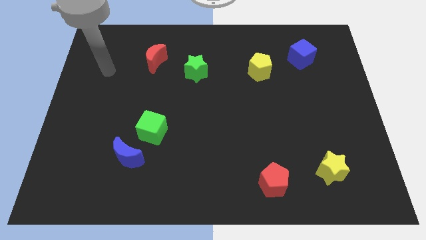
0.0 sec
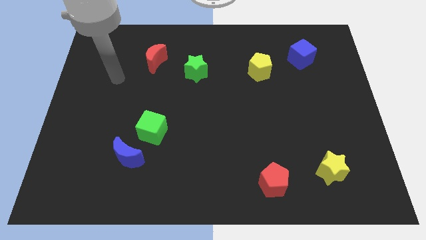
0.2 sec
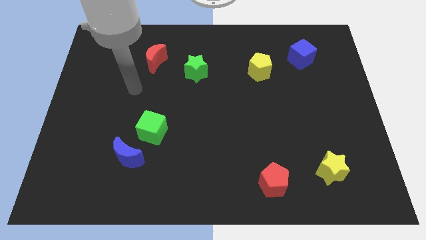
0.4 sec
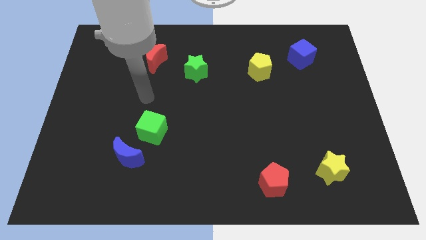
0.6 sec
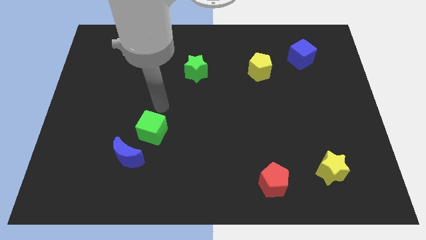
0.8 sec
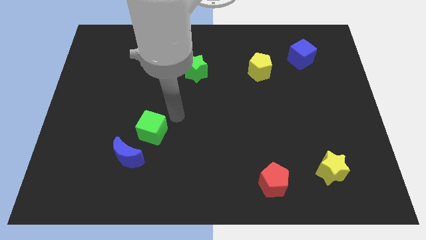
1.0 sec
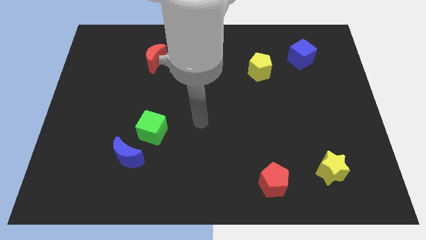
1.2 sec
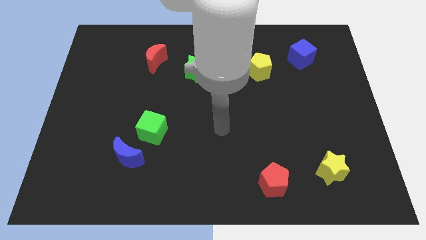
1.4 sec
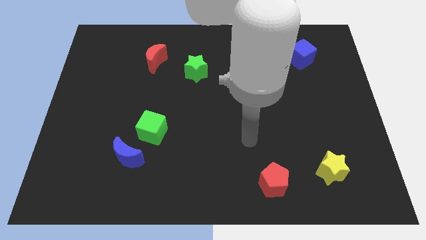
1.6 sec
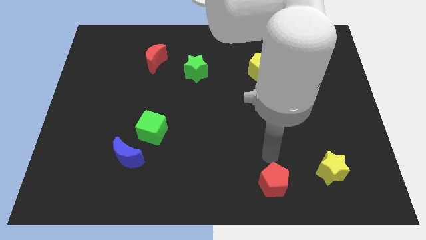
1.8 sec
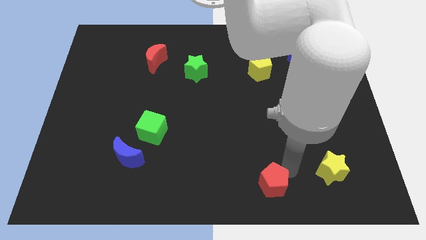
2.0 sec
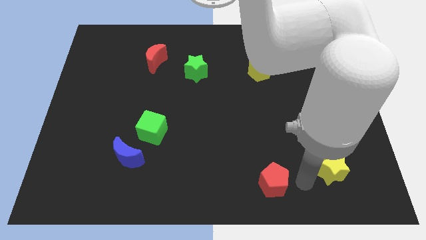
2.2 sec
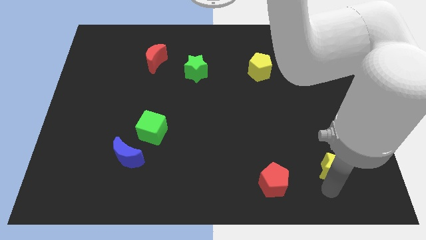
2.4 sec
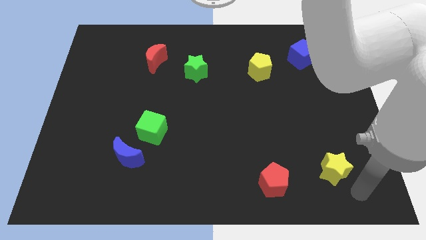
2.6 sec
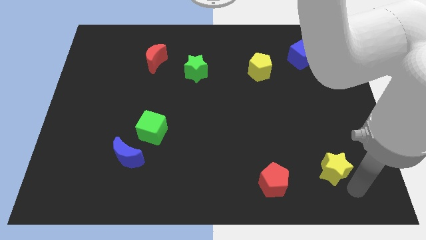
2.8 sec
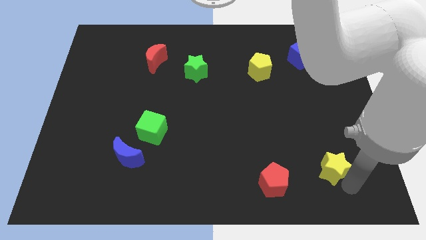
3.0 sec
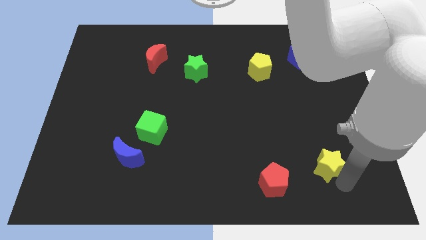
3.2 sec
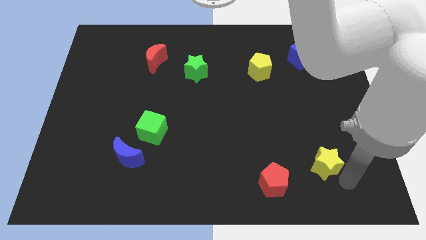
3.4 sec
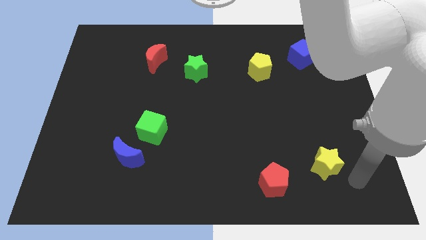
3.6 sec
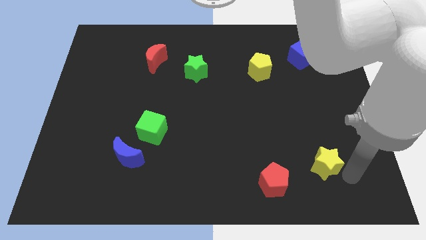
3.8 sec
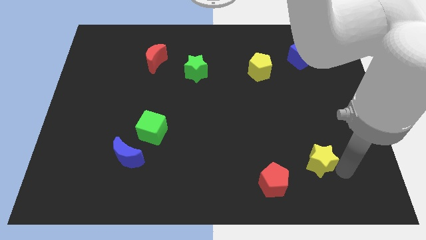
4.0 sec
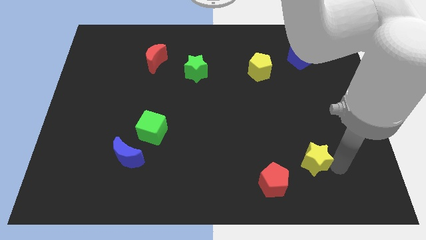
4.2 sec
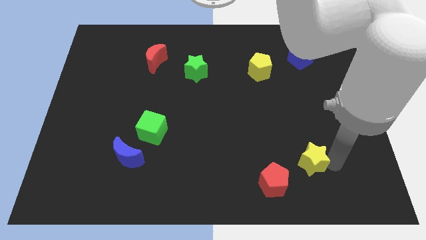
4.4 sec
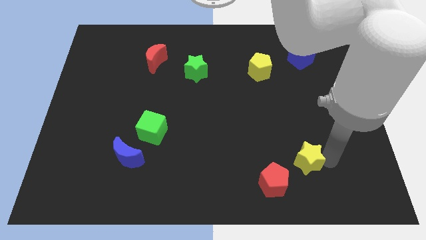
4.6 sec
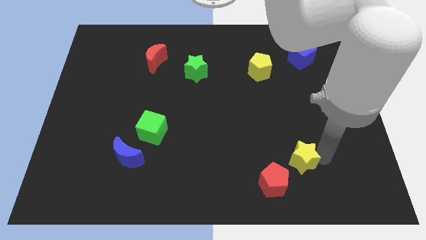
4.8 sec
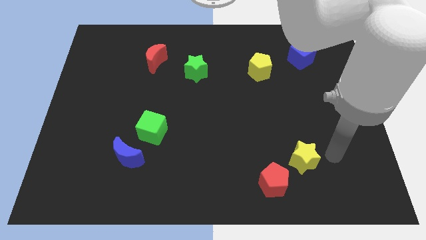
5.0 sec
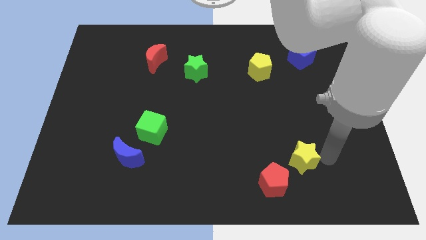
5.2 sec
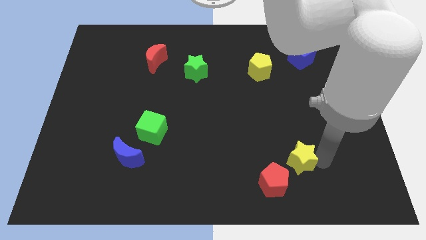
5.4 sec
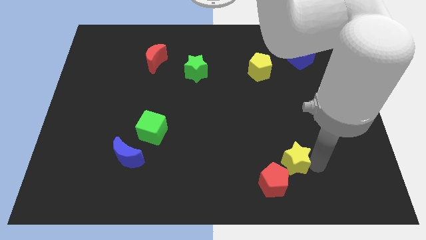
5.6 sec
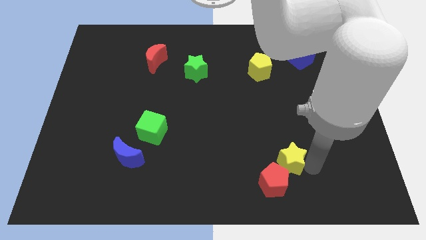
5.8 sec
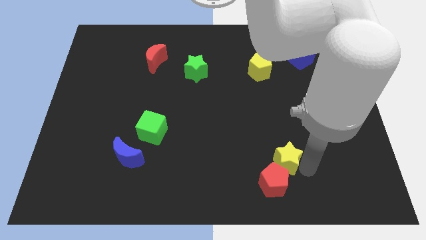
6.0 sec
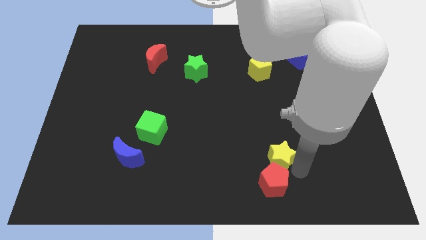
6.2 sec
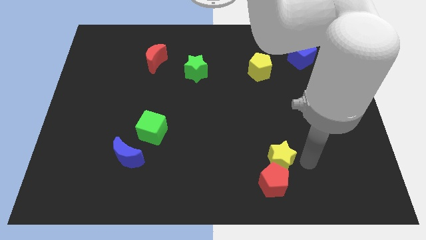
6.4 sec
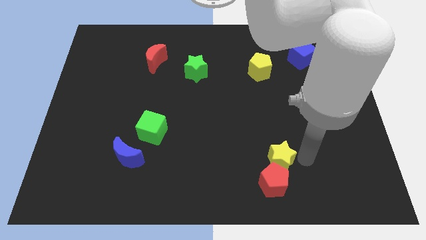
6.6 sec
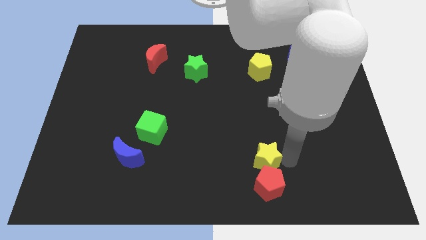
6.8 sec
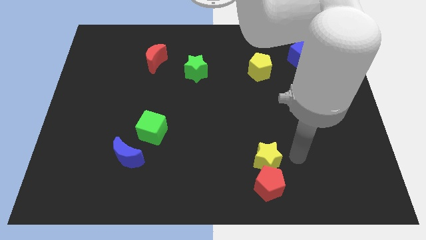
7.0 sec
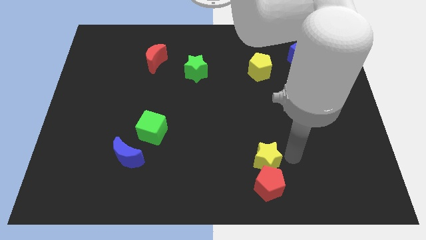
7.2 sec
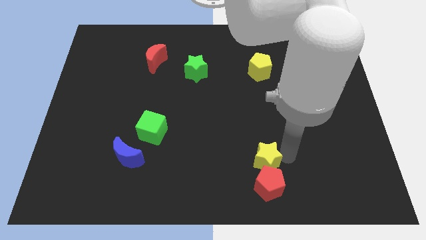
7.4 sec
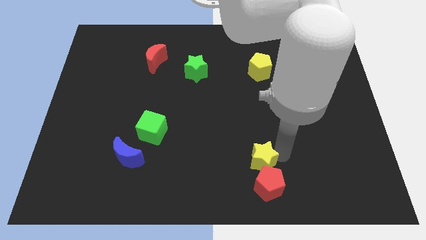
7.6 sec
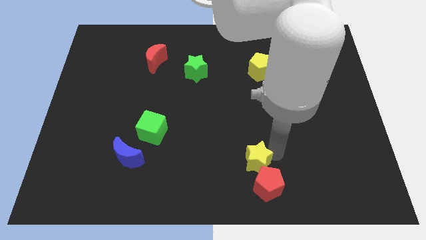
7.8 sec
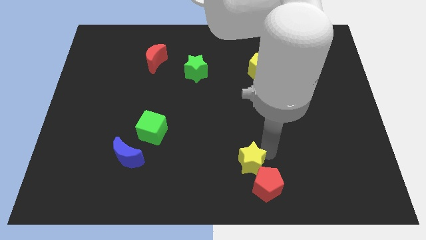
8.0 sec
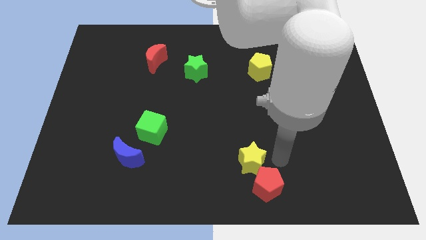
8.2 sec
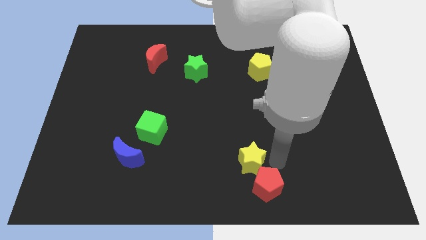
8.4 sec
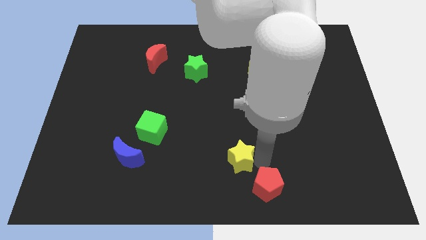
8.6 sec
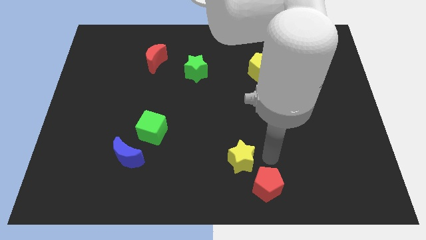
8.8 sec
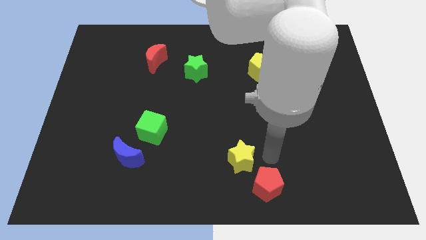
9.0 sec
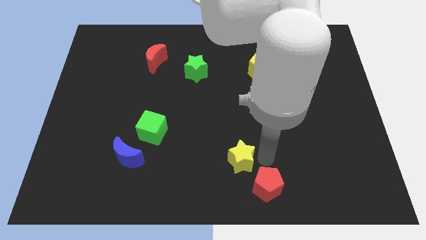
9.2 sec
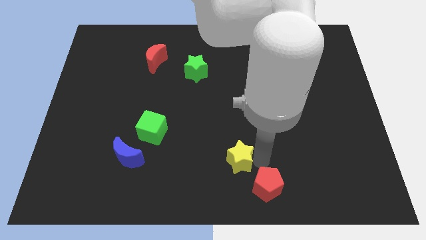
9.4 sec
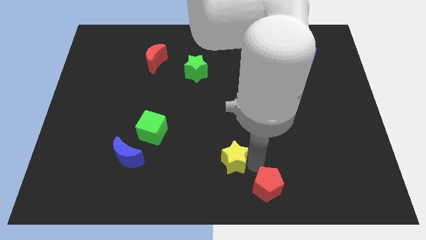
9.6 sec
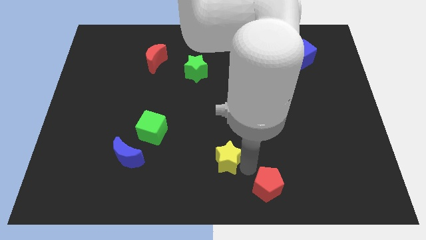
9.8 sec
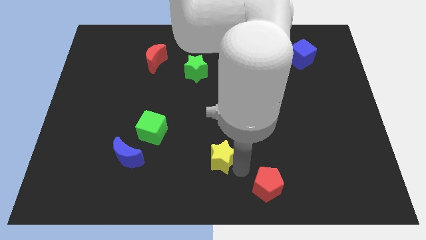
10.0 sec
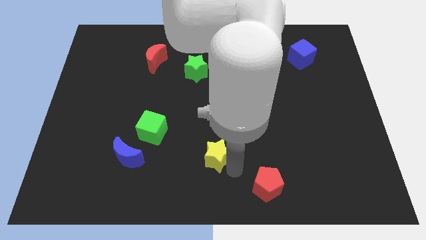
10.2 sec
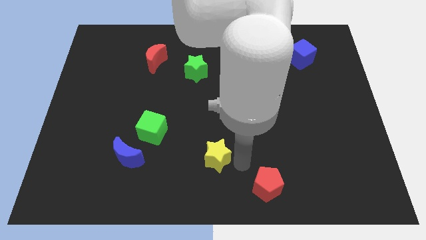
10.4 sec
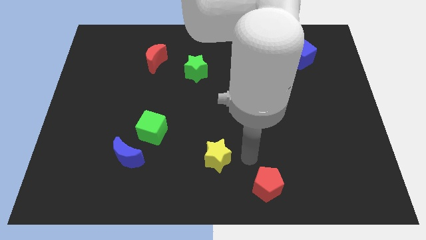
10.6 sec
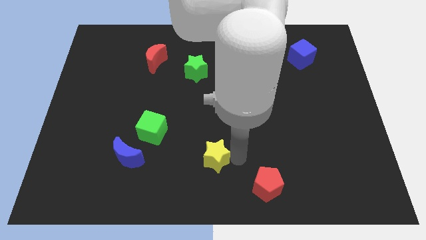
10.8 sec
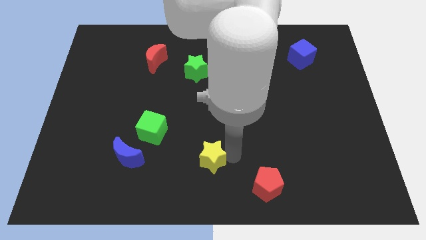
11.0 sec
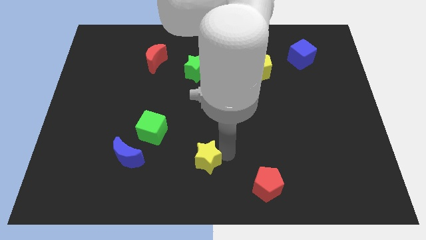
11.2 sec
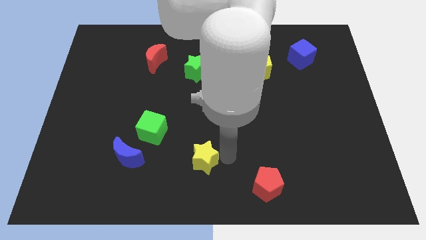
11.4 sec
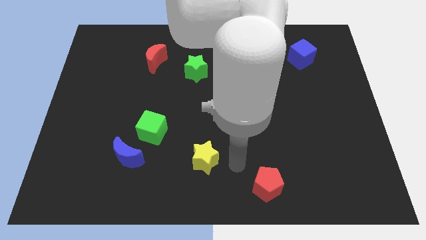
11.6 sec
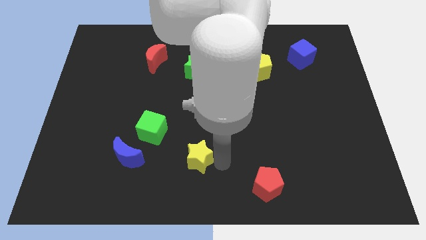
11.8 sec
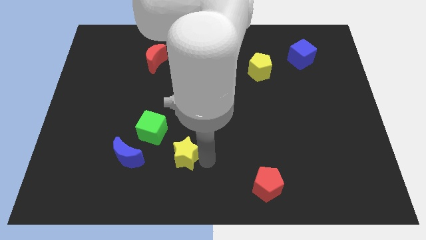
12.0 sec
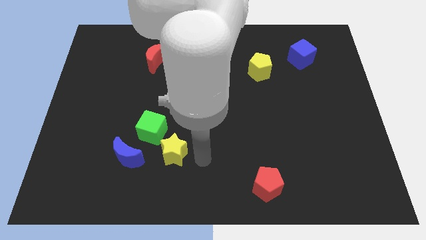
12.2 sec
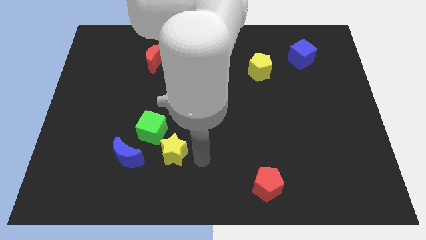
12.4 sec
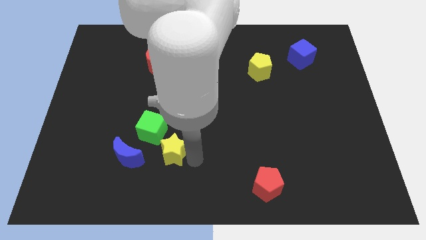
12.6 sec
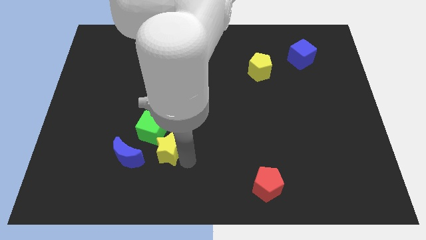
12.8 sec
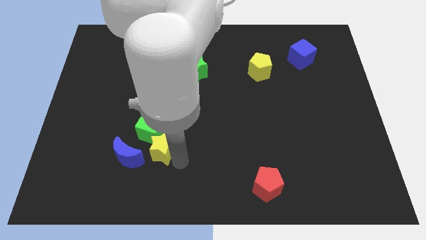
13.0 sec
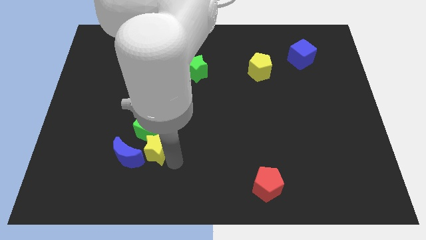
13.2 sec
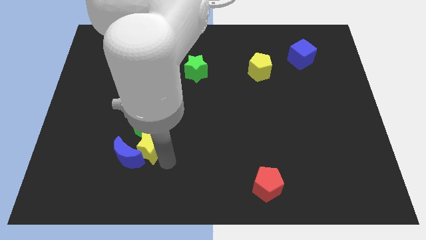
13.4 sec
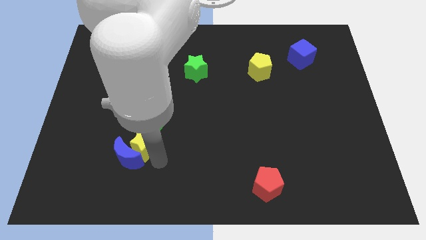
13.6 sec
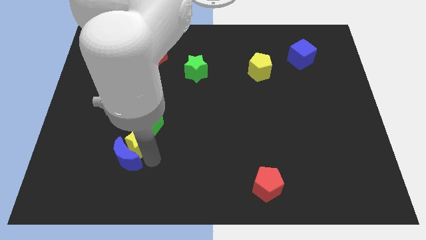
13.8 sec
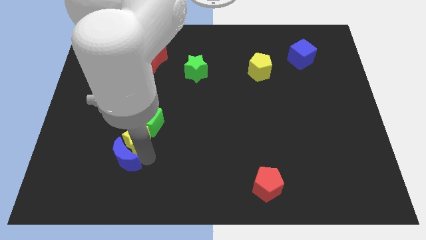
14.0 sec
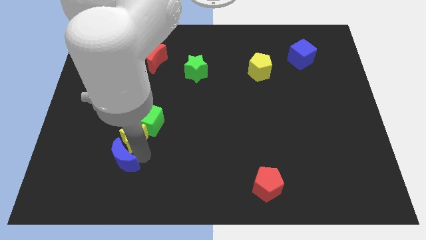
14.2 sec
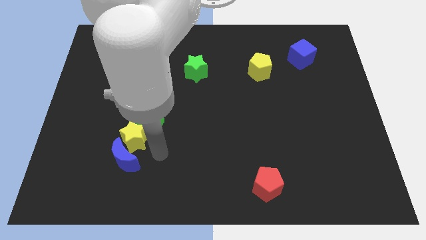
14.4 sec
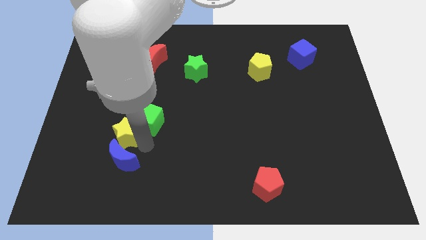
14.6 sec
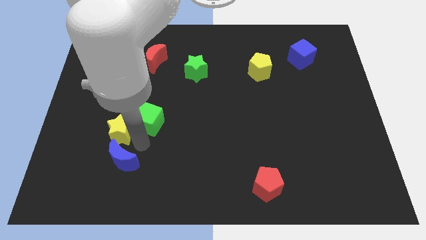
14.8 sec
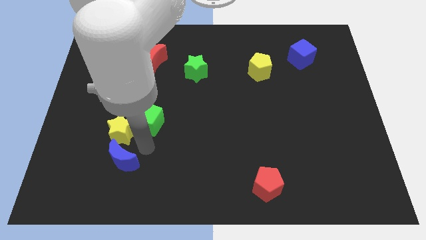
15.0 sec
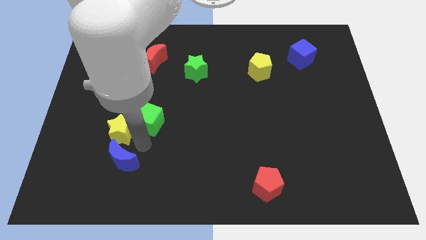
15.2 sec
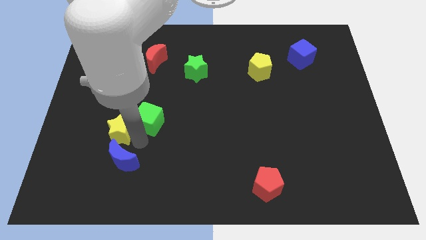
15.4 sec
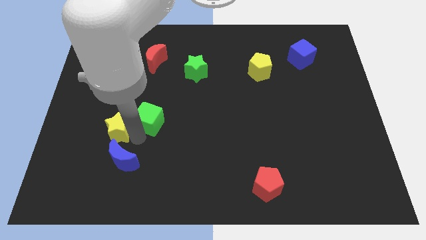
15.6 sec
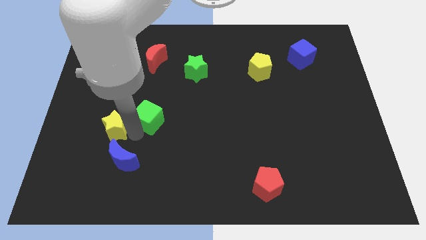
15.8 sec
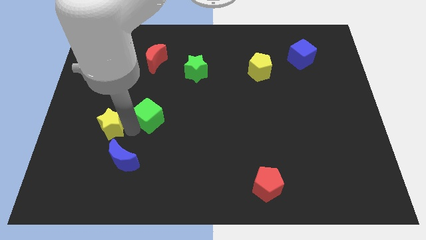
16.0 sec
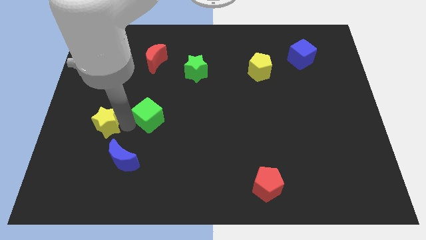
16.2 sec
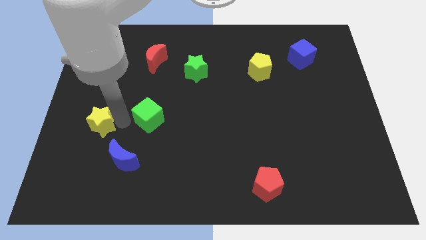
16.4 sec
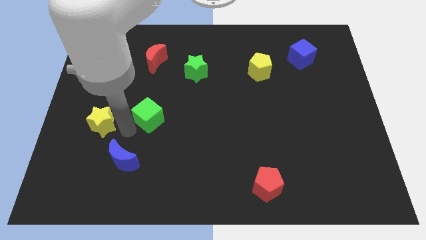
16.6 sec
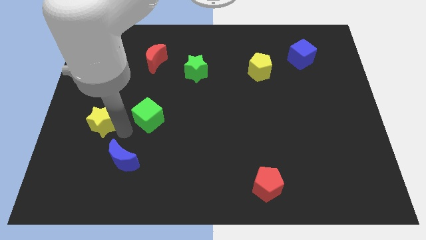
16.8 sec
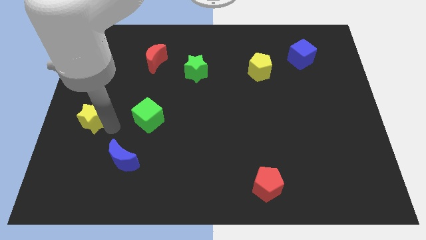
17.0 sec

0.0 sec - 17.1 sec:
put the yellow star to the center left
